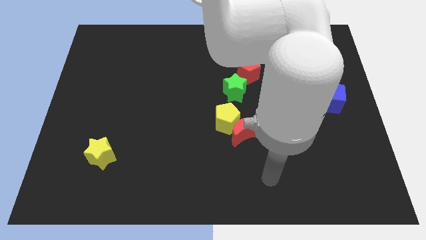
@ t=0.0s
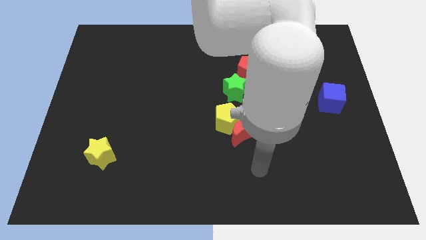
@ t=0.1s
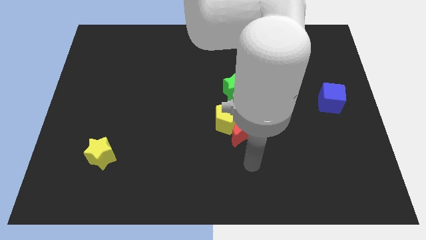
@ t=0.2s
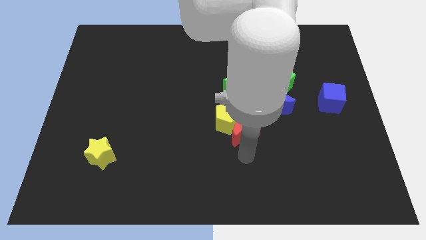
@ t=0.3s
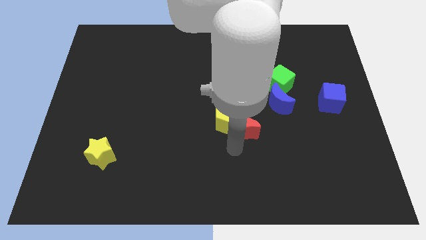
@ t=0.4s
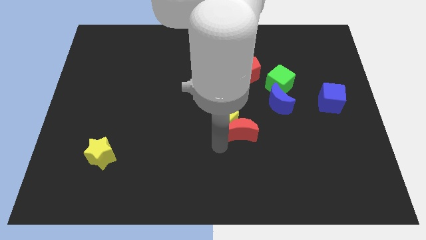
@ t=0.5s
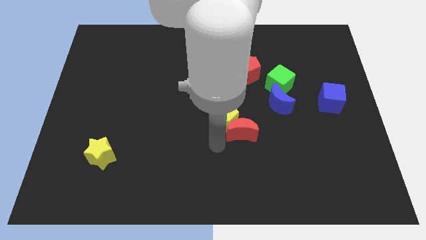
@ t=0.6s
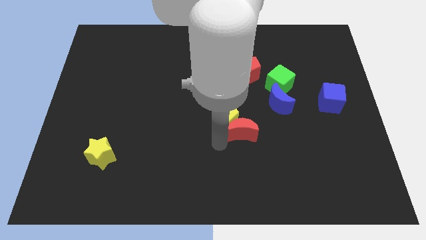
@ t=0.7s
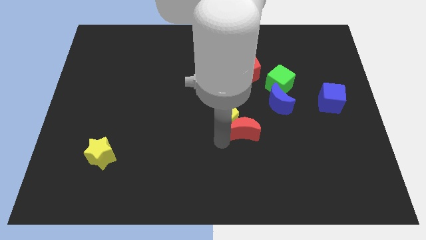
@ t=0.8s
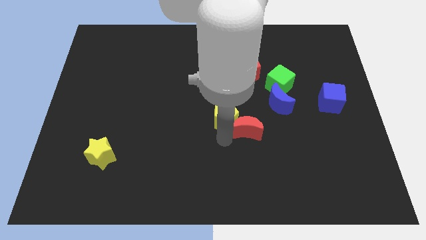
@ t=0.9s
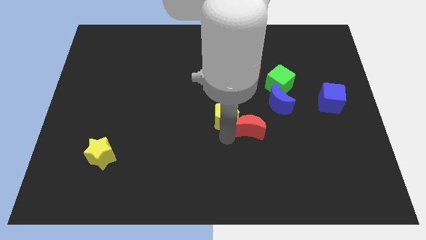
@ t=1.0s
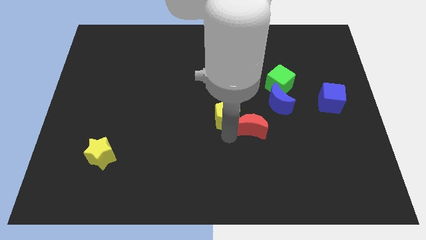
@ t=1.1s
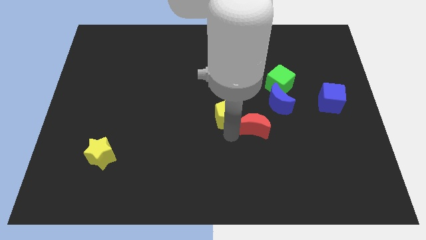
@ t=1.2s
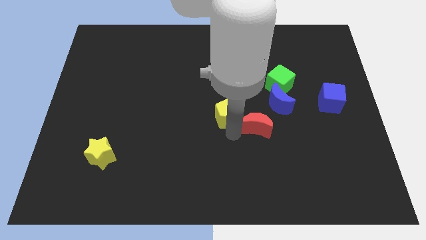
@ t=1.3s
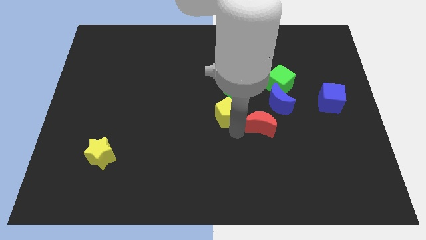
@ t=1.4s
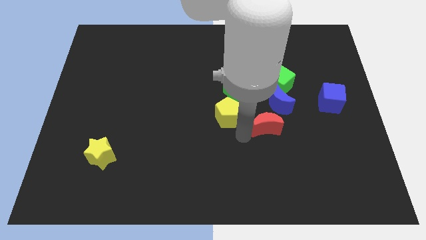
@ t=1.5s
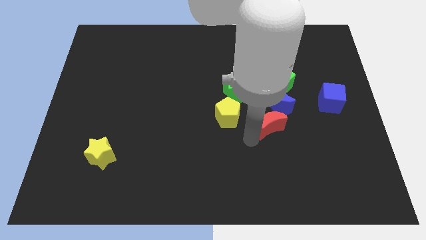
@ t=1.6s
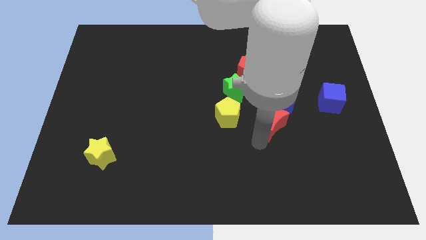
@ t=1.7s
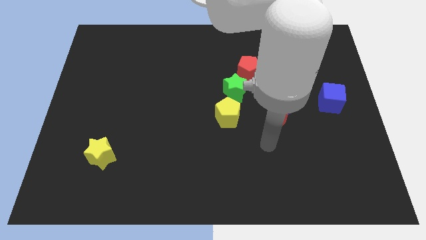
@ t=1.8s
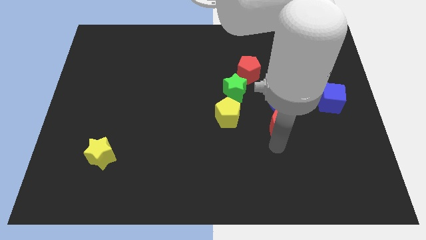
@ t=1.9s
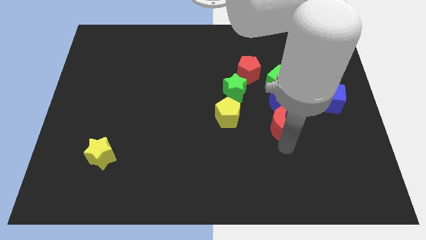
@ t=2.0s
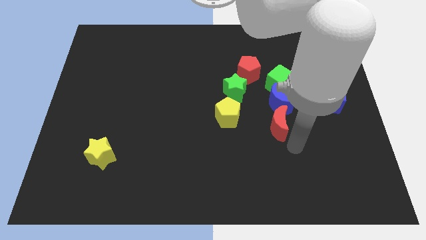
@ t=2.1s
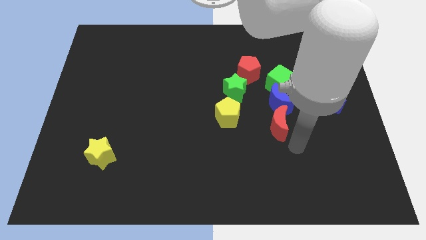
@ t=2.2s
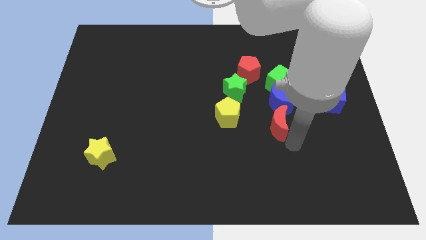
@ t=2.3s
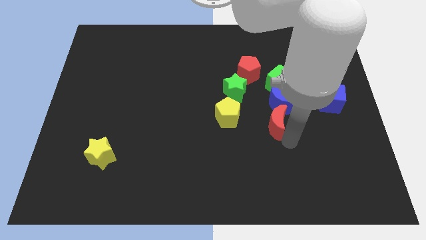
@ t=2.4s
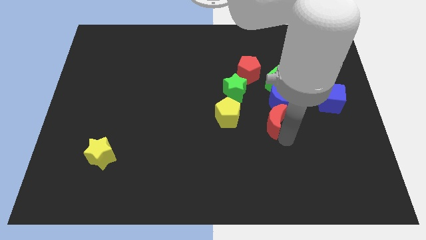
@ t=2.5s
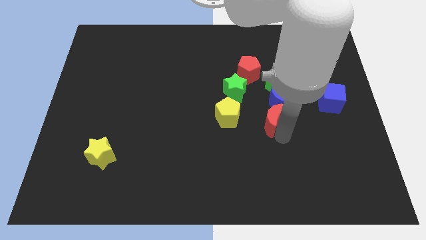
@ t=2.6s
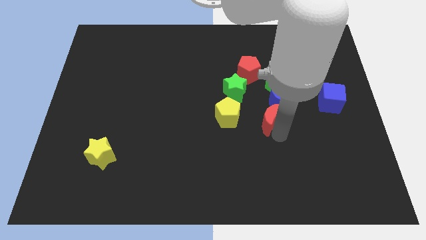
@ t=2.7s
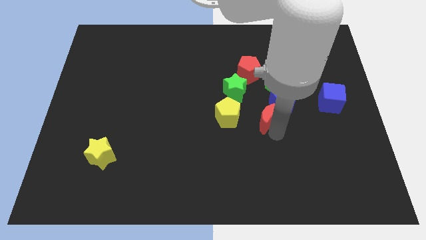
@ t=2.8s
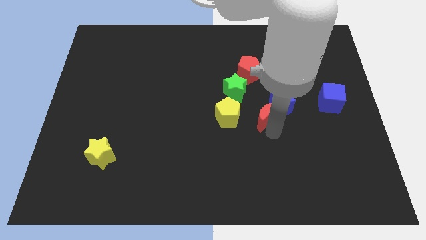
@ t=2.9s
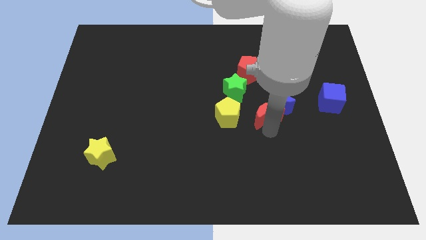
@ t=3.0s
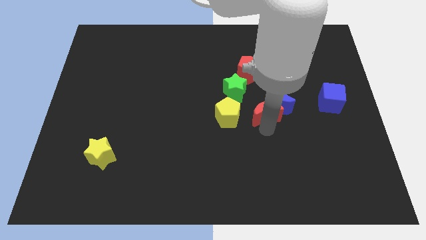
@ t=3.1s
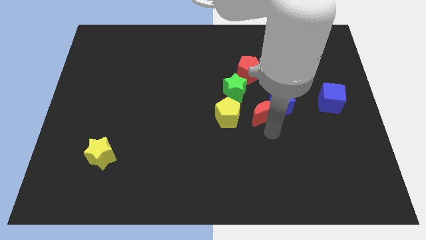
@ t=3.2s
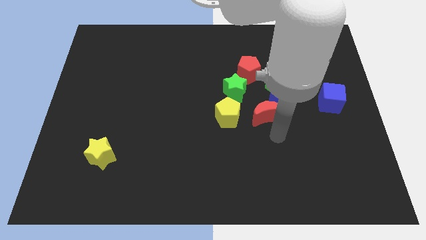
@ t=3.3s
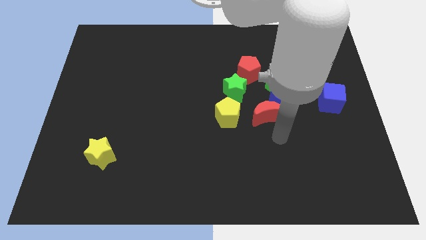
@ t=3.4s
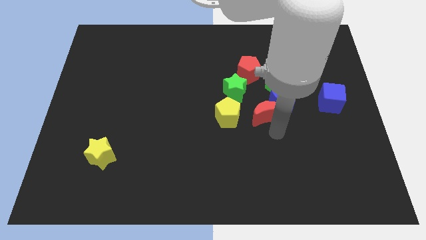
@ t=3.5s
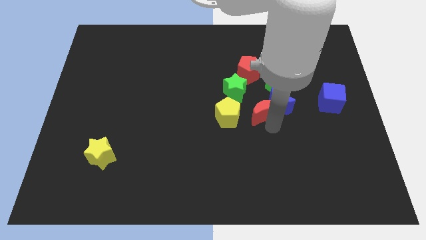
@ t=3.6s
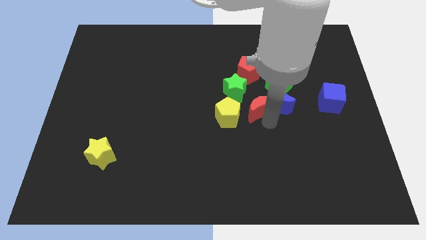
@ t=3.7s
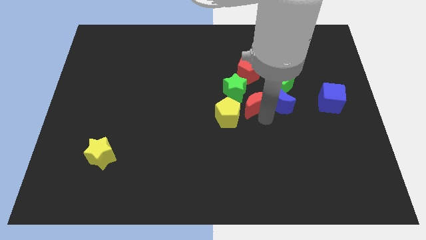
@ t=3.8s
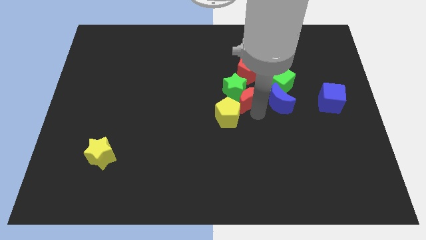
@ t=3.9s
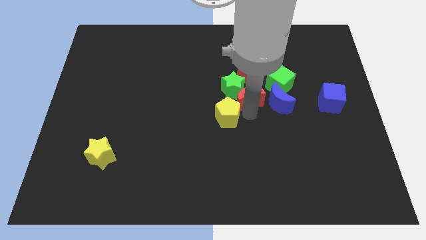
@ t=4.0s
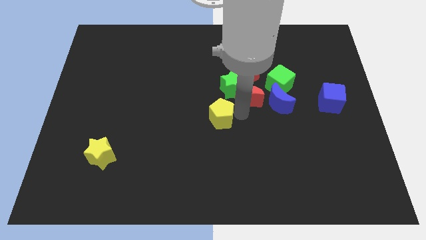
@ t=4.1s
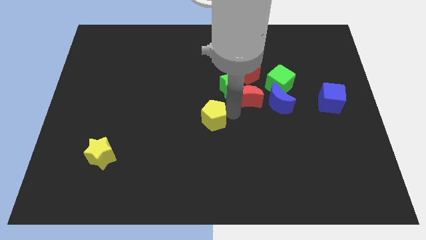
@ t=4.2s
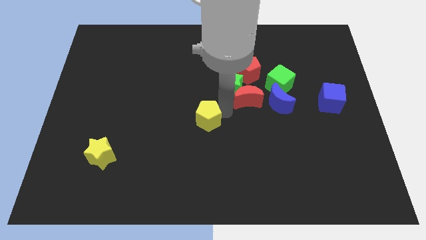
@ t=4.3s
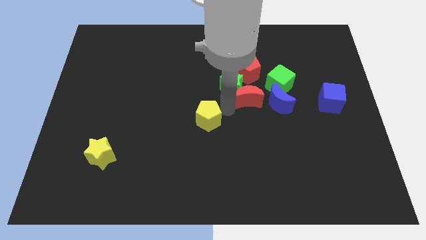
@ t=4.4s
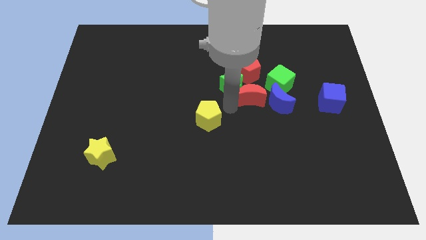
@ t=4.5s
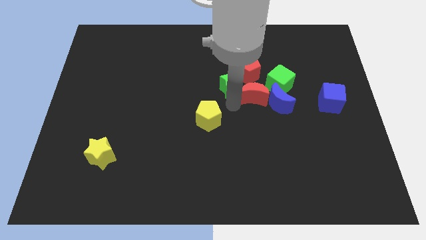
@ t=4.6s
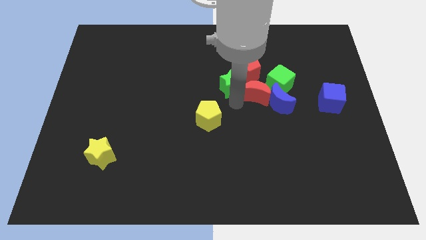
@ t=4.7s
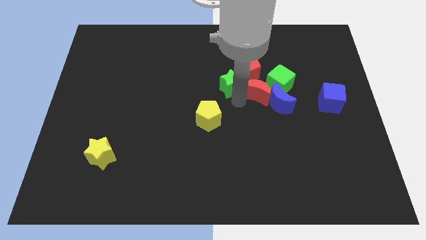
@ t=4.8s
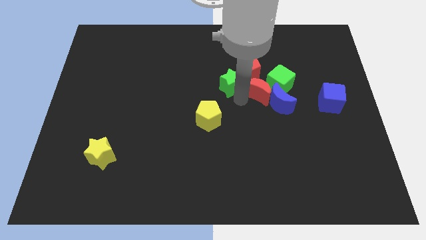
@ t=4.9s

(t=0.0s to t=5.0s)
slide the red moon next to the green cube

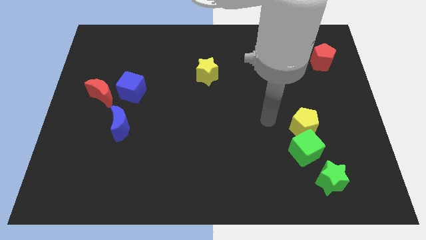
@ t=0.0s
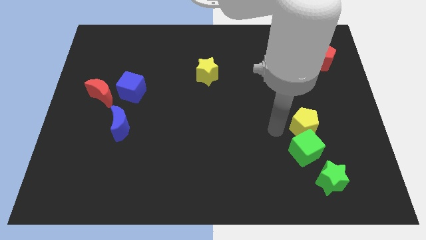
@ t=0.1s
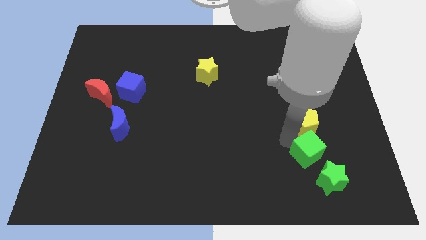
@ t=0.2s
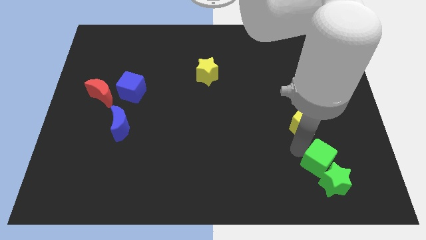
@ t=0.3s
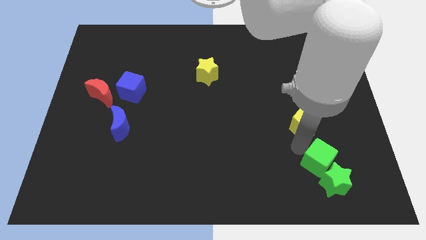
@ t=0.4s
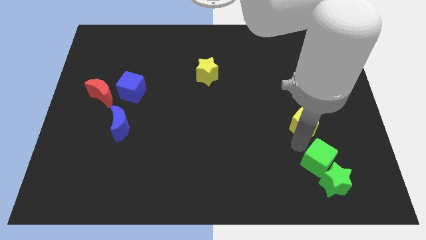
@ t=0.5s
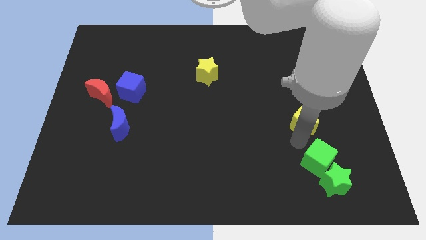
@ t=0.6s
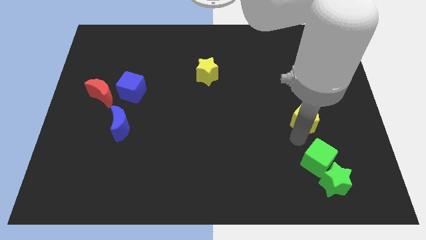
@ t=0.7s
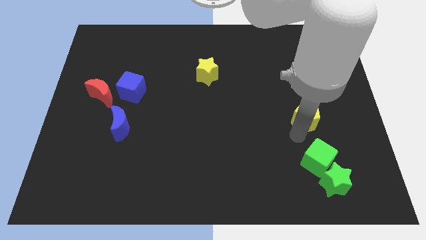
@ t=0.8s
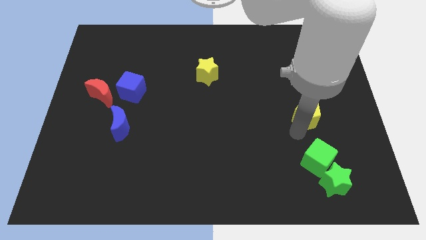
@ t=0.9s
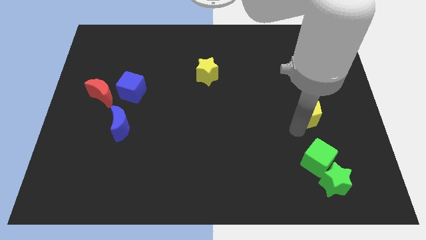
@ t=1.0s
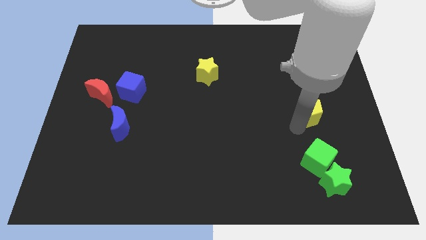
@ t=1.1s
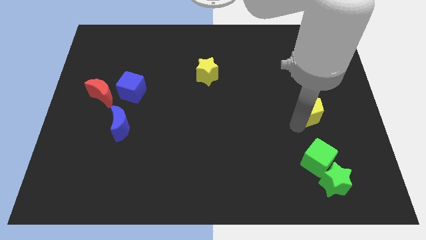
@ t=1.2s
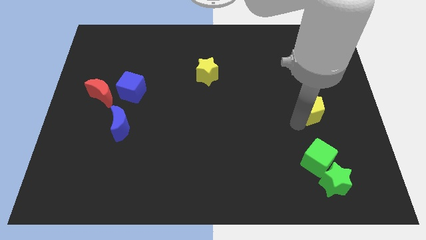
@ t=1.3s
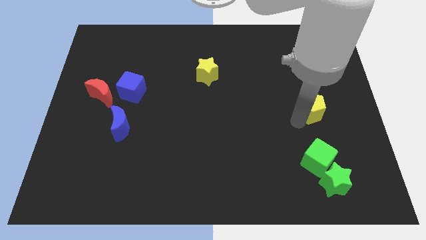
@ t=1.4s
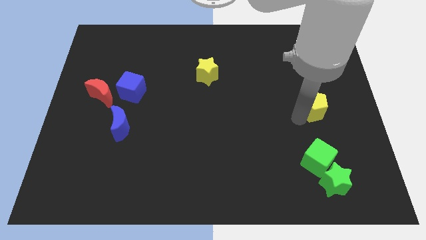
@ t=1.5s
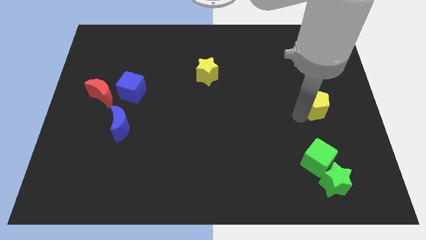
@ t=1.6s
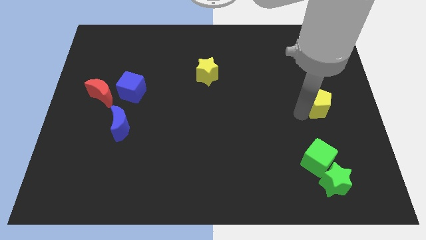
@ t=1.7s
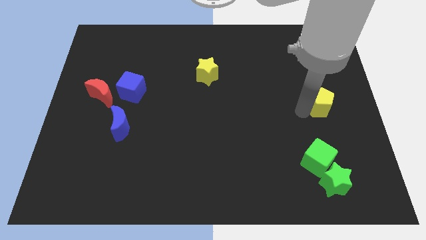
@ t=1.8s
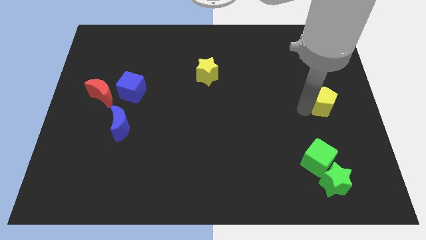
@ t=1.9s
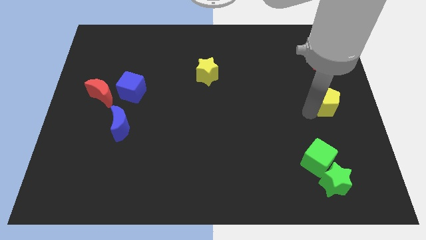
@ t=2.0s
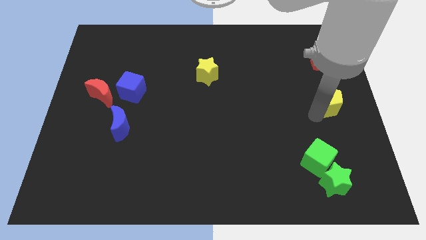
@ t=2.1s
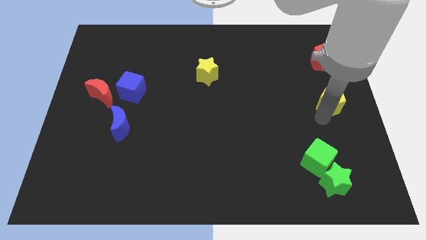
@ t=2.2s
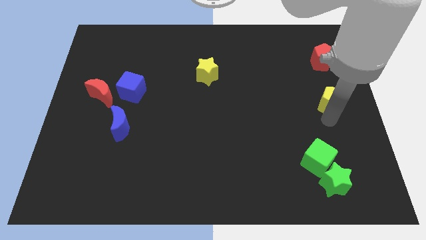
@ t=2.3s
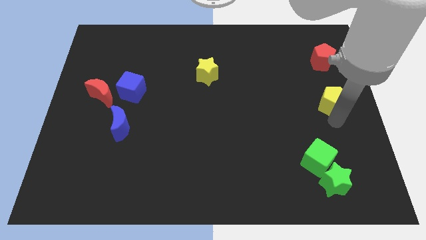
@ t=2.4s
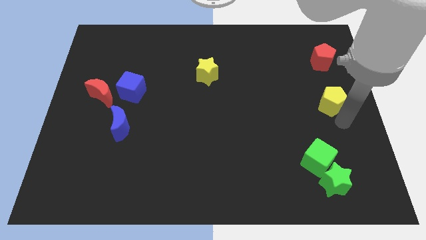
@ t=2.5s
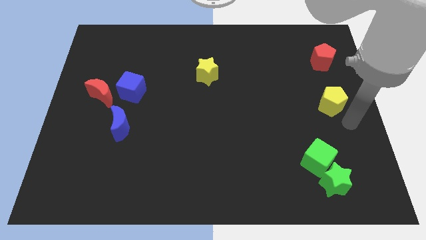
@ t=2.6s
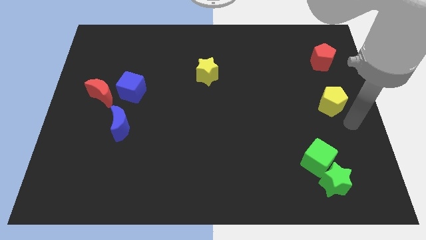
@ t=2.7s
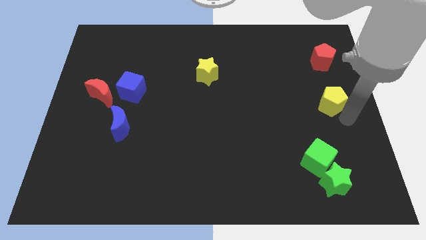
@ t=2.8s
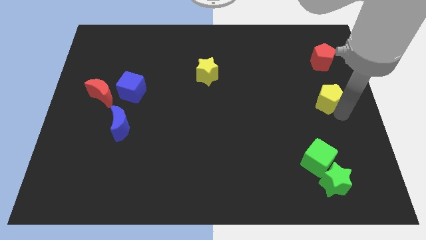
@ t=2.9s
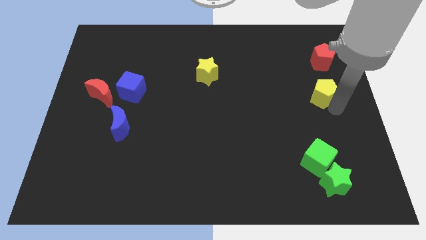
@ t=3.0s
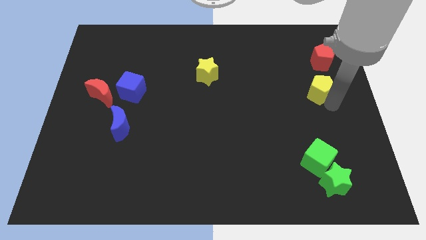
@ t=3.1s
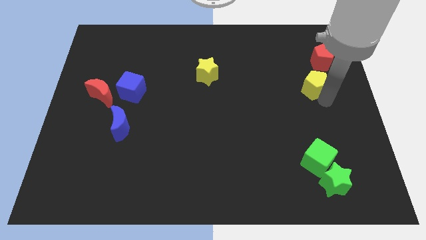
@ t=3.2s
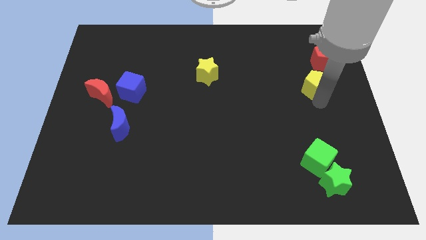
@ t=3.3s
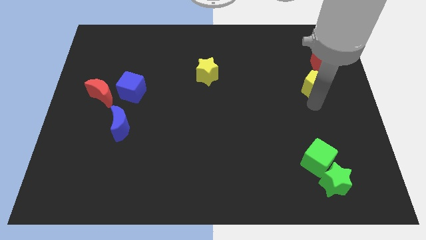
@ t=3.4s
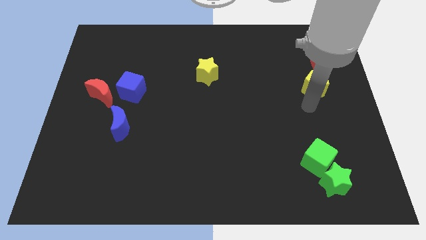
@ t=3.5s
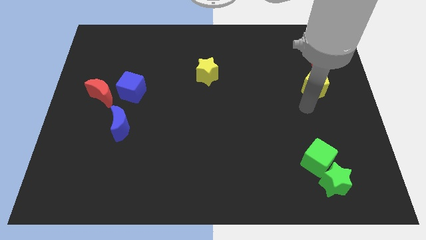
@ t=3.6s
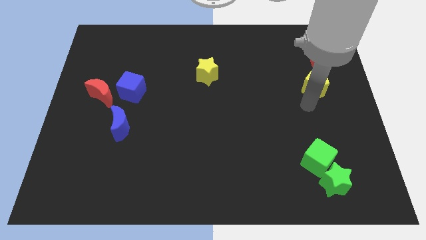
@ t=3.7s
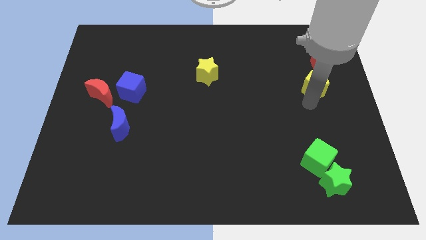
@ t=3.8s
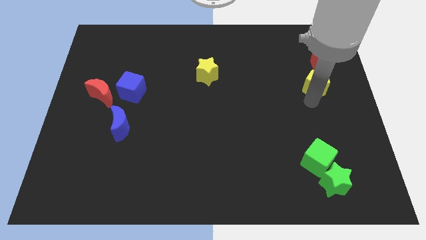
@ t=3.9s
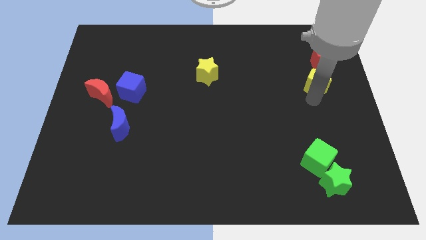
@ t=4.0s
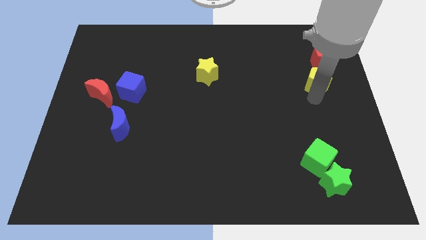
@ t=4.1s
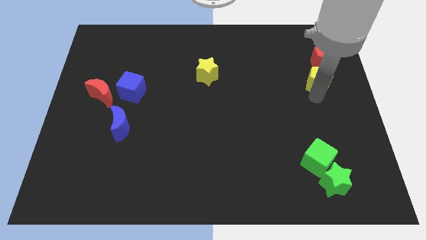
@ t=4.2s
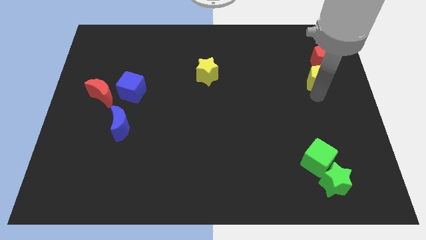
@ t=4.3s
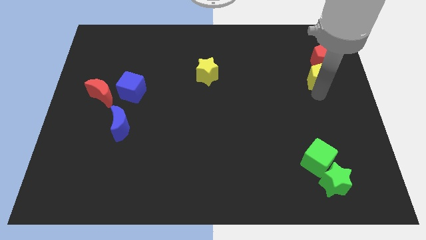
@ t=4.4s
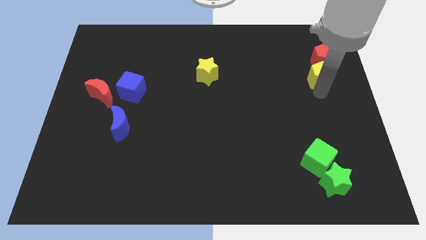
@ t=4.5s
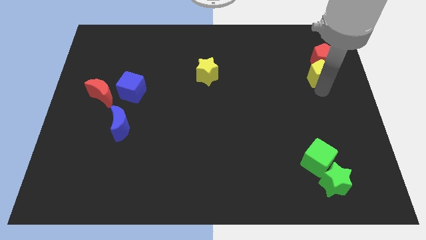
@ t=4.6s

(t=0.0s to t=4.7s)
slide the yellow pentagon towards the red pentagon
